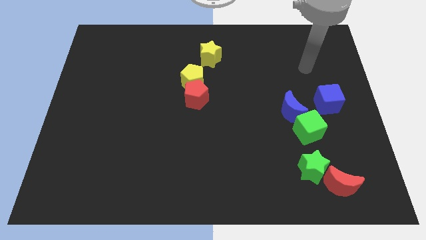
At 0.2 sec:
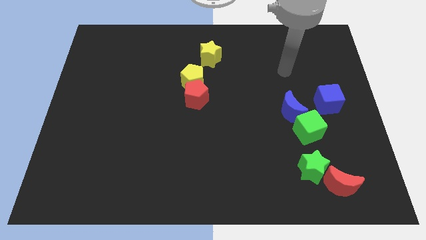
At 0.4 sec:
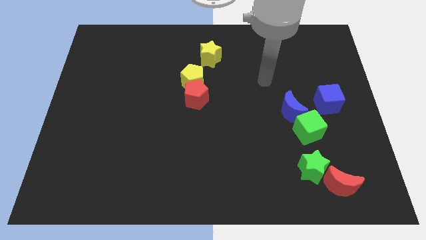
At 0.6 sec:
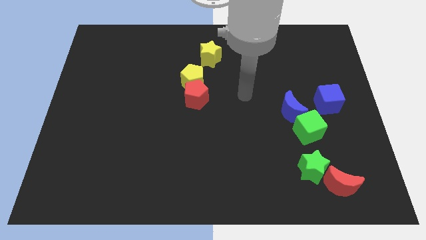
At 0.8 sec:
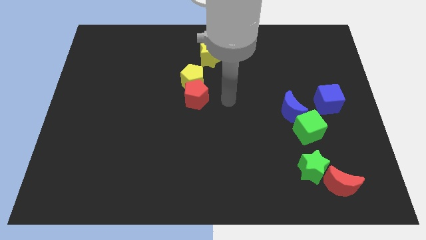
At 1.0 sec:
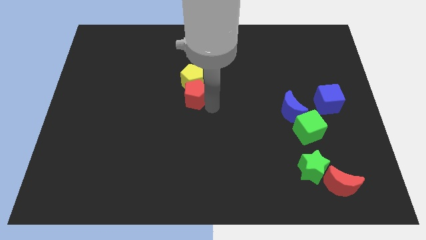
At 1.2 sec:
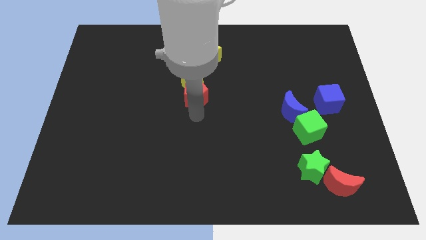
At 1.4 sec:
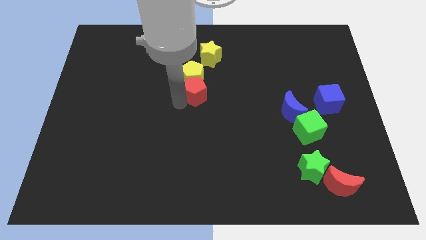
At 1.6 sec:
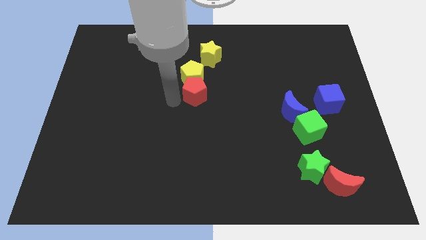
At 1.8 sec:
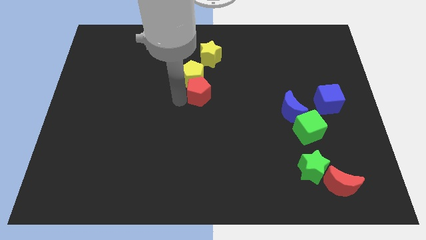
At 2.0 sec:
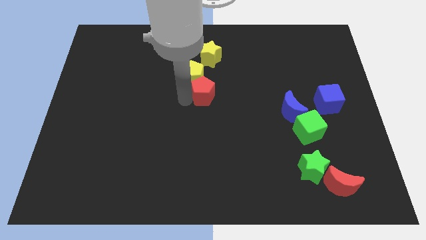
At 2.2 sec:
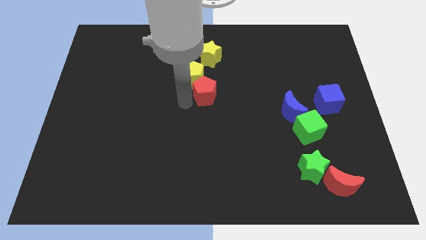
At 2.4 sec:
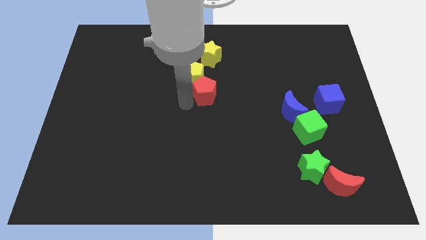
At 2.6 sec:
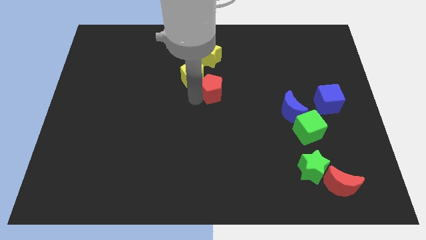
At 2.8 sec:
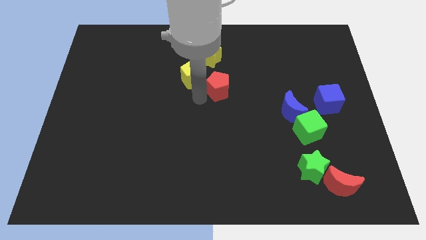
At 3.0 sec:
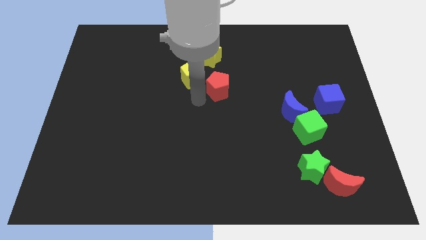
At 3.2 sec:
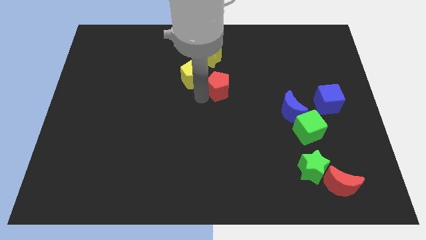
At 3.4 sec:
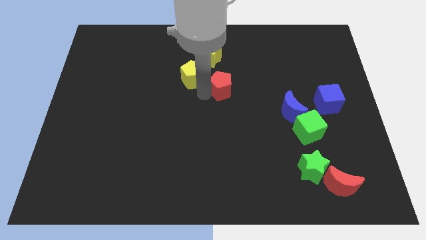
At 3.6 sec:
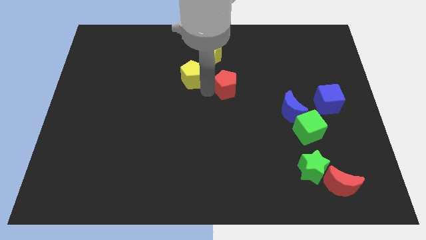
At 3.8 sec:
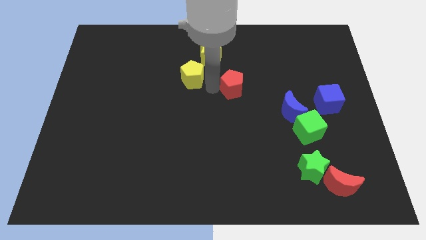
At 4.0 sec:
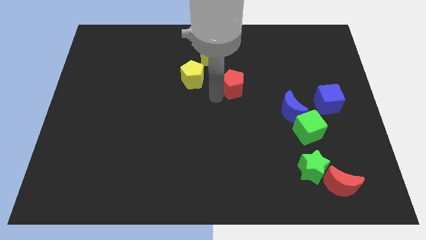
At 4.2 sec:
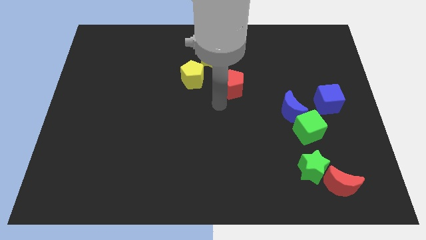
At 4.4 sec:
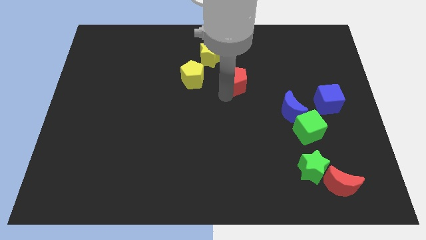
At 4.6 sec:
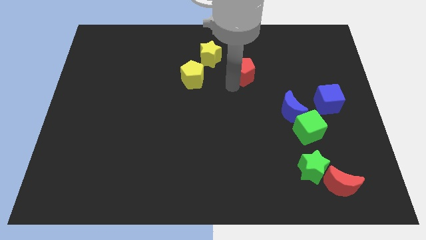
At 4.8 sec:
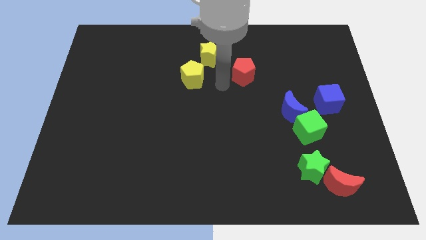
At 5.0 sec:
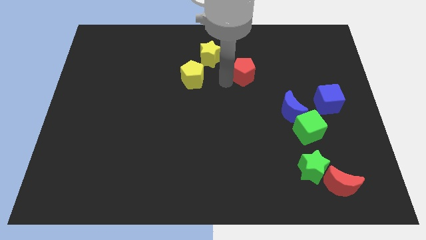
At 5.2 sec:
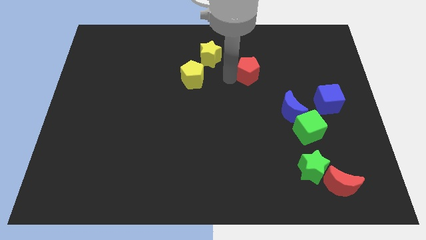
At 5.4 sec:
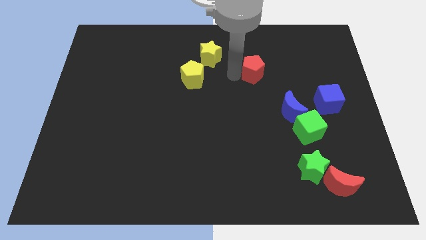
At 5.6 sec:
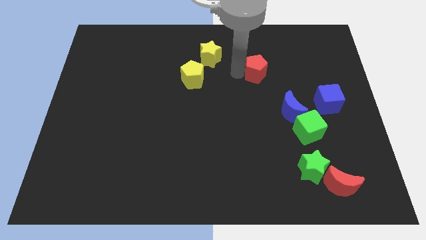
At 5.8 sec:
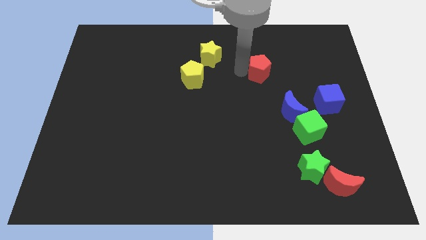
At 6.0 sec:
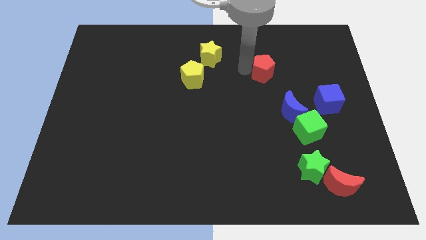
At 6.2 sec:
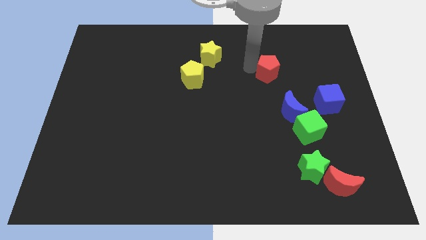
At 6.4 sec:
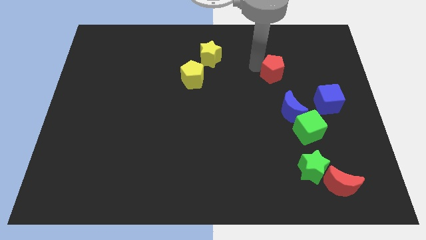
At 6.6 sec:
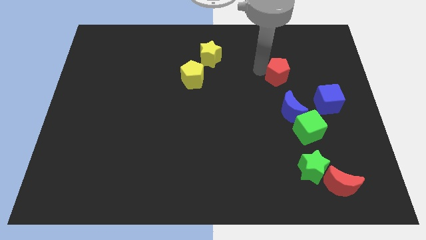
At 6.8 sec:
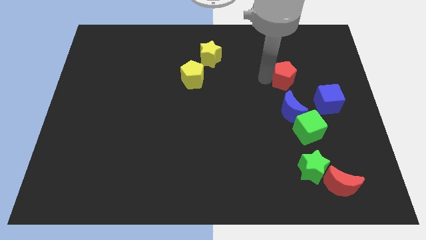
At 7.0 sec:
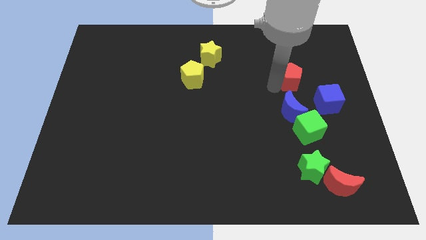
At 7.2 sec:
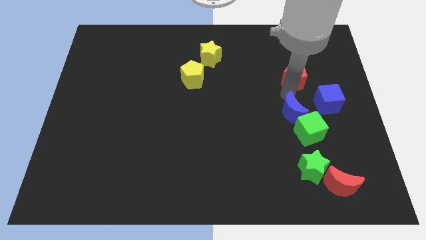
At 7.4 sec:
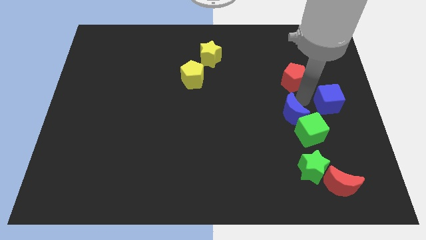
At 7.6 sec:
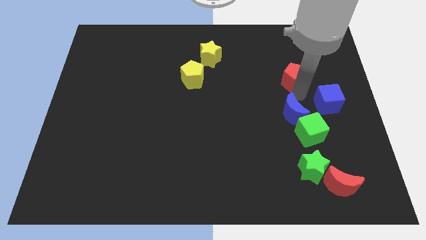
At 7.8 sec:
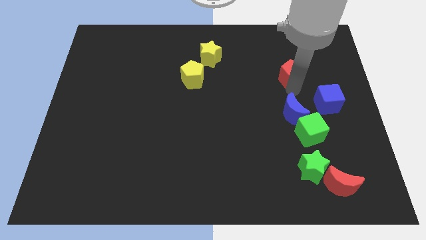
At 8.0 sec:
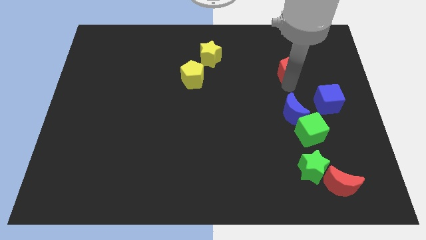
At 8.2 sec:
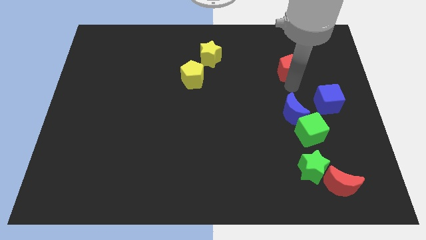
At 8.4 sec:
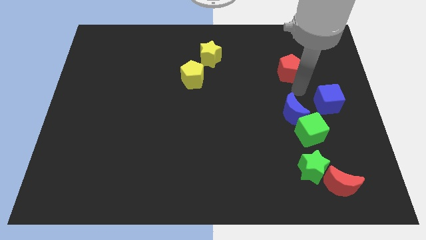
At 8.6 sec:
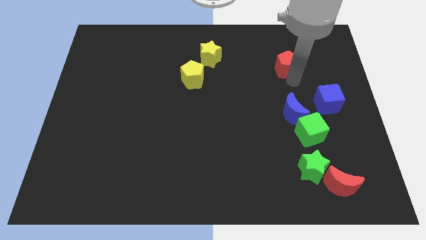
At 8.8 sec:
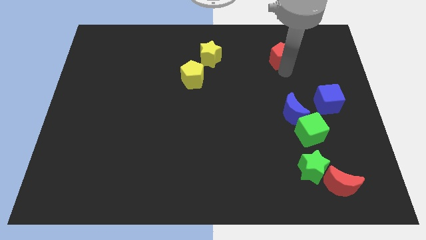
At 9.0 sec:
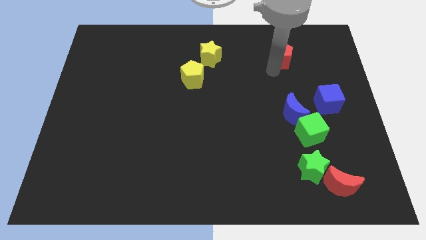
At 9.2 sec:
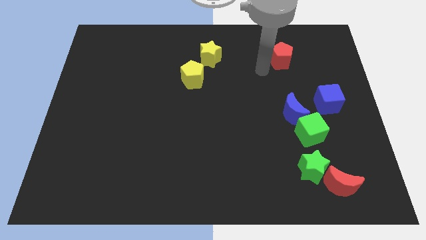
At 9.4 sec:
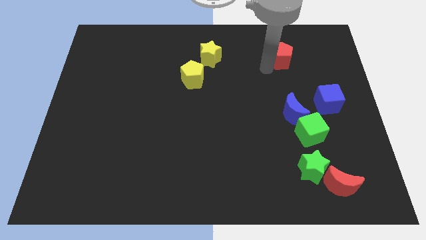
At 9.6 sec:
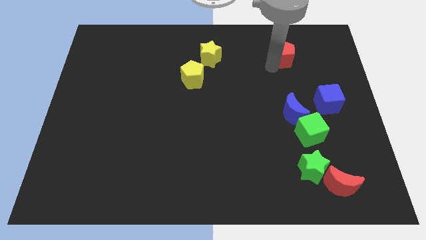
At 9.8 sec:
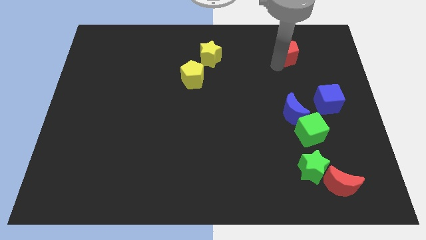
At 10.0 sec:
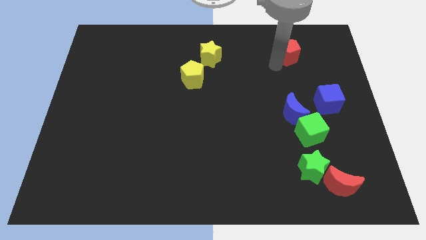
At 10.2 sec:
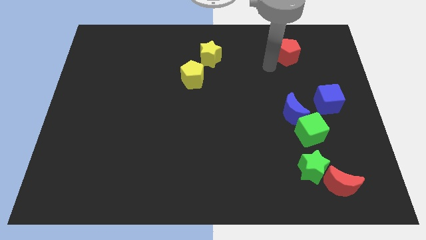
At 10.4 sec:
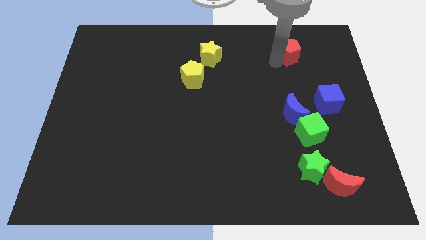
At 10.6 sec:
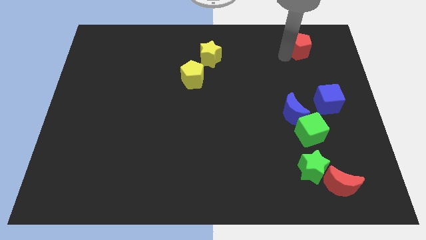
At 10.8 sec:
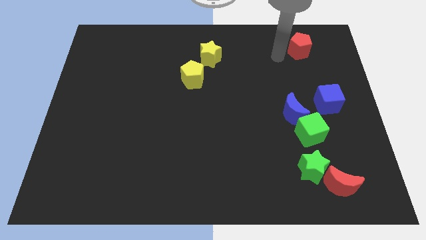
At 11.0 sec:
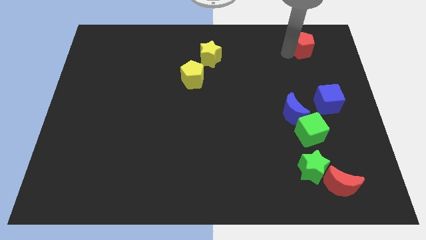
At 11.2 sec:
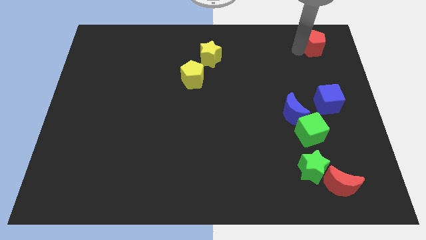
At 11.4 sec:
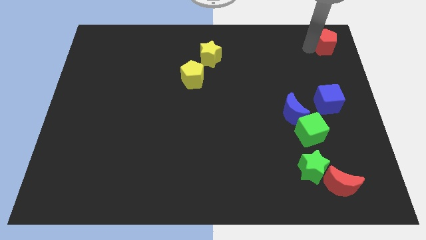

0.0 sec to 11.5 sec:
put the red pentagon to the top right of the board
